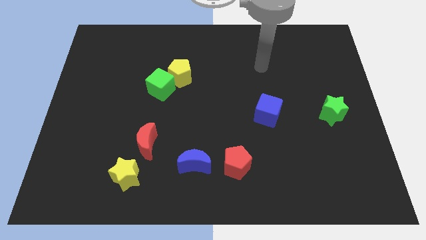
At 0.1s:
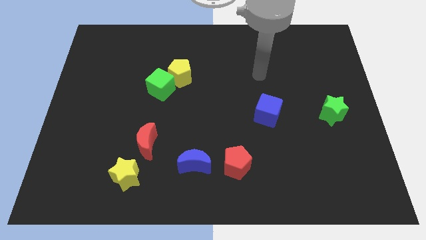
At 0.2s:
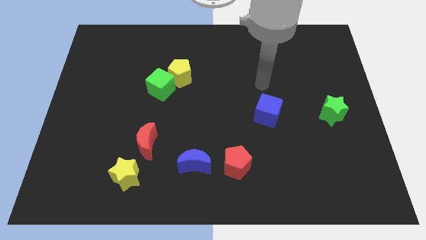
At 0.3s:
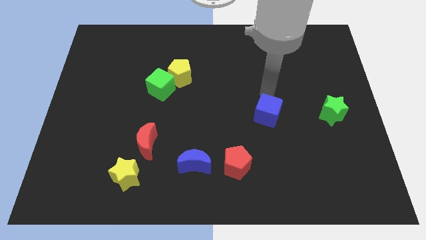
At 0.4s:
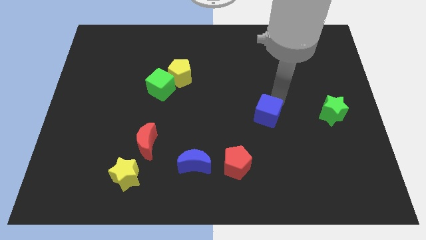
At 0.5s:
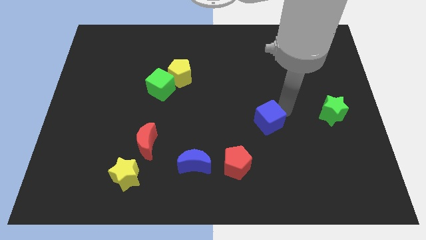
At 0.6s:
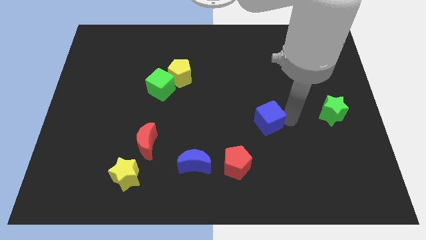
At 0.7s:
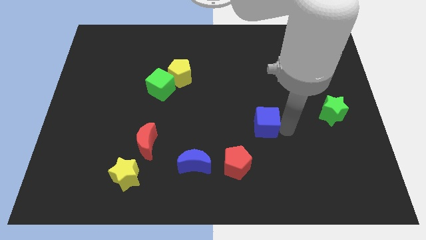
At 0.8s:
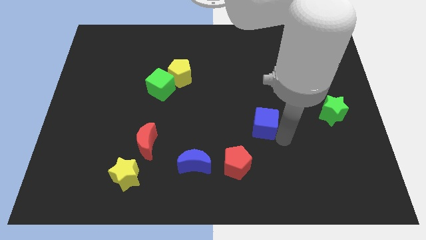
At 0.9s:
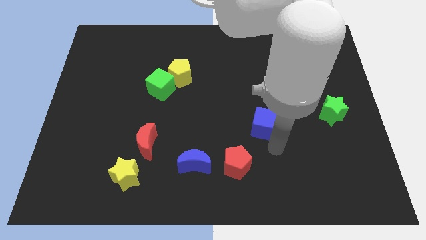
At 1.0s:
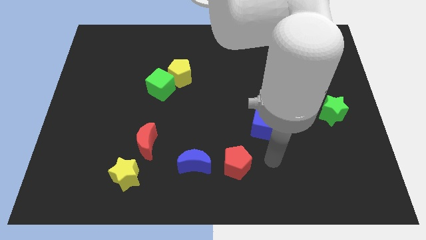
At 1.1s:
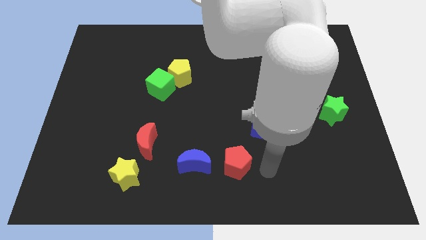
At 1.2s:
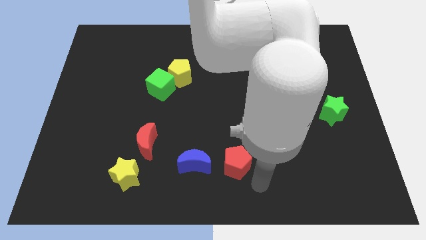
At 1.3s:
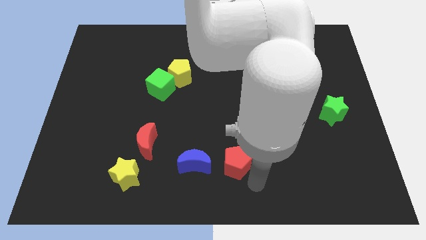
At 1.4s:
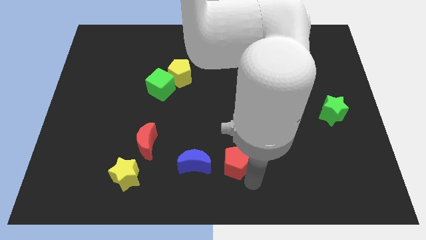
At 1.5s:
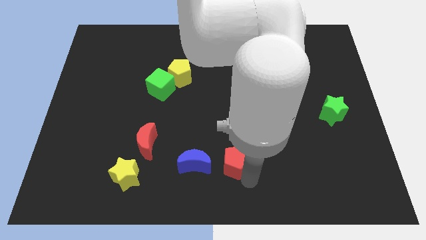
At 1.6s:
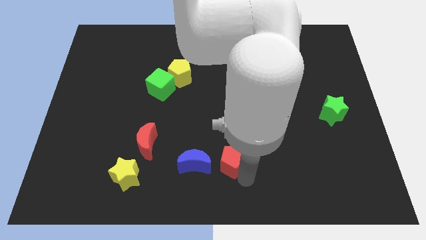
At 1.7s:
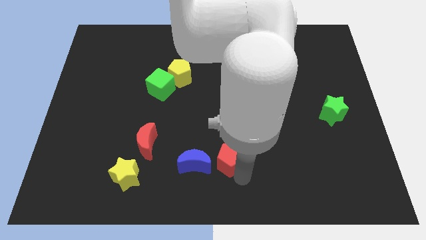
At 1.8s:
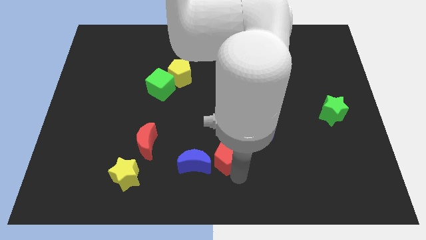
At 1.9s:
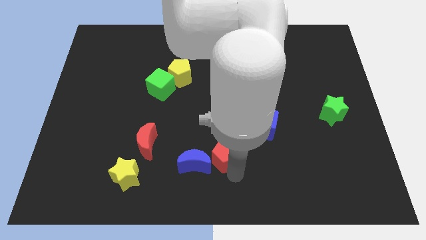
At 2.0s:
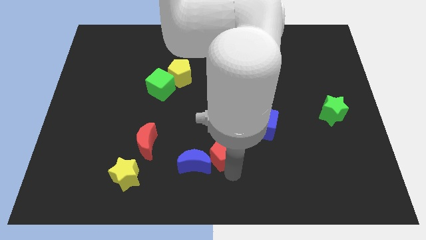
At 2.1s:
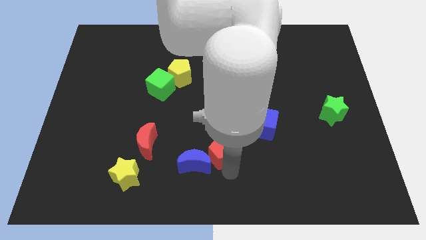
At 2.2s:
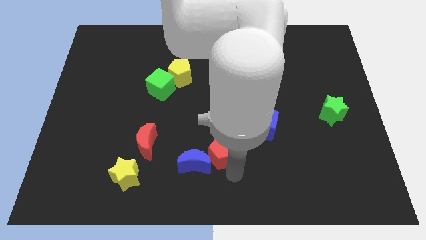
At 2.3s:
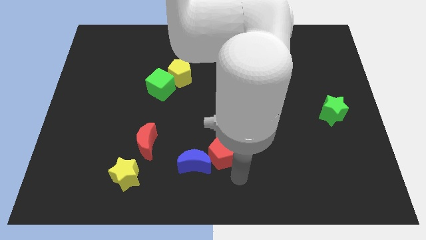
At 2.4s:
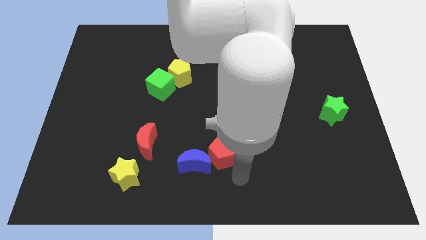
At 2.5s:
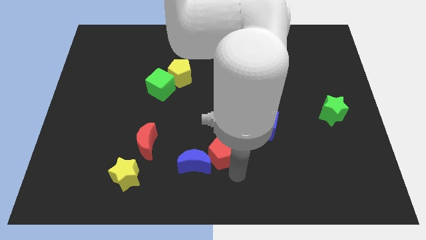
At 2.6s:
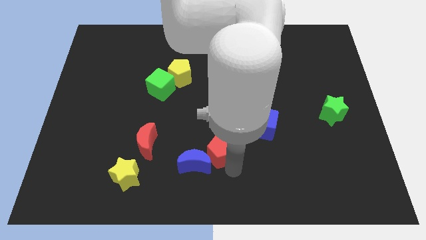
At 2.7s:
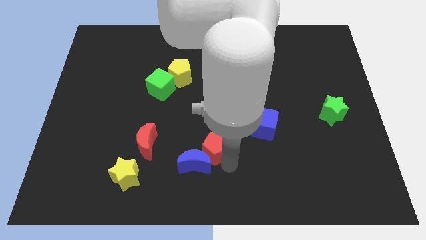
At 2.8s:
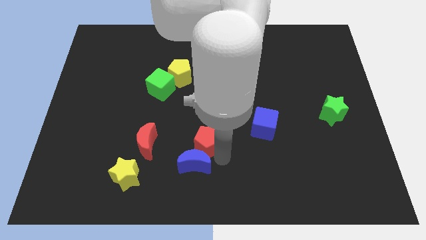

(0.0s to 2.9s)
slightly slide the red pentagon diagonally up and left

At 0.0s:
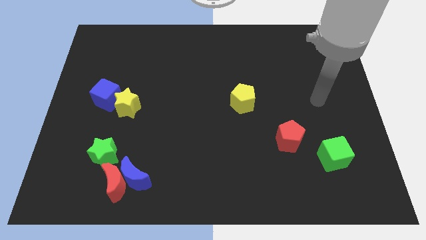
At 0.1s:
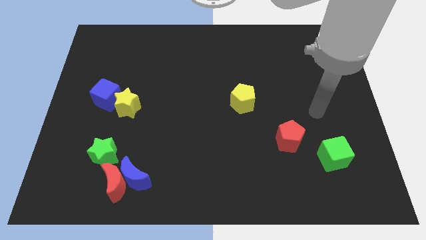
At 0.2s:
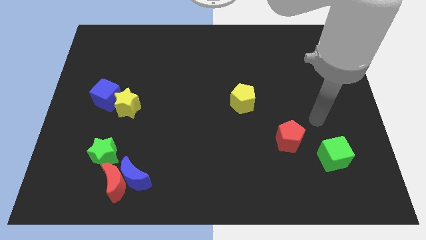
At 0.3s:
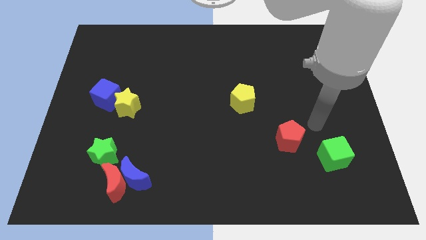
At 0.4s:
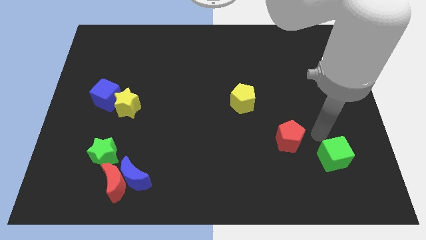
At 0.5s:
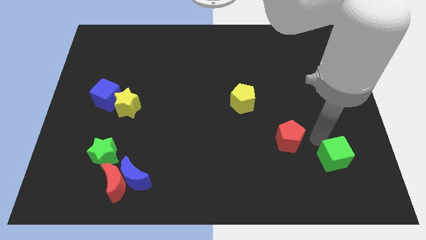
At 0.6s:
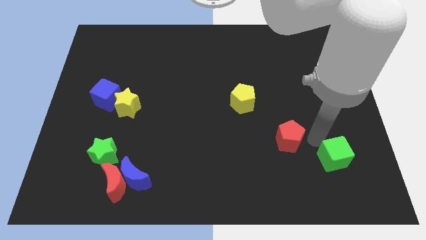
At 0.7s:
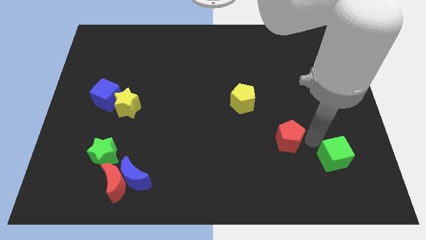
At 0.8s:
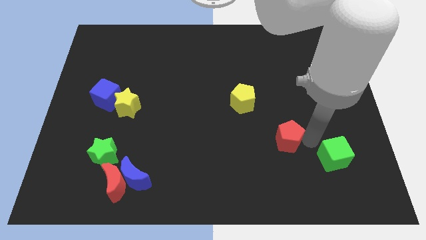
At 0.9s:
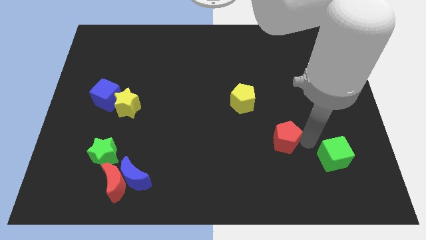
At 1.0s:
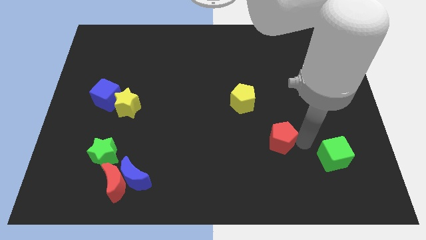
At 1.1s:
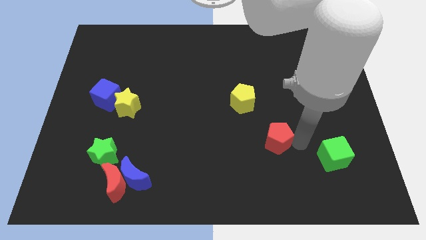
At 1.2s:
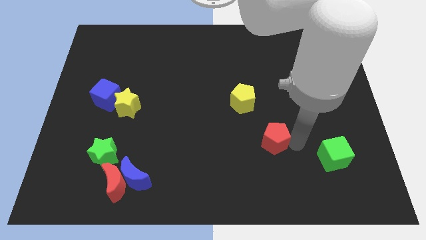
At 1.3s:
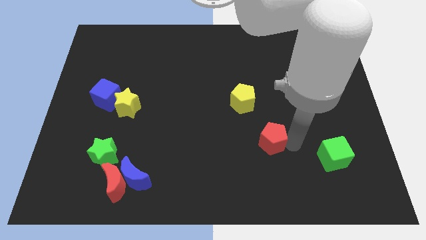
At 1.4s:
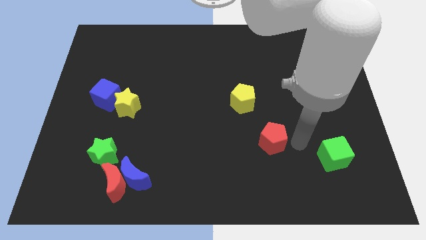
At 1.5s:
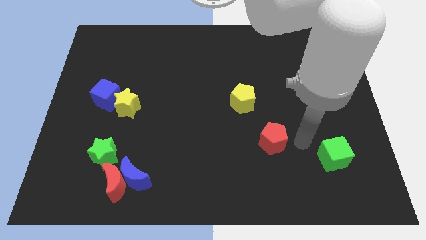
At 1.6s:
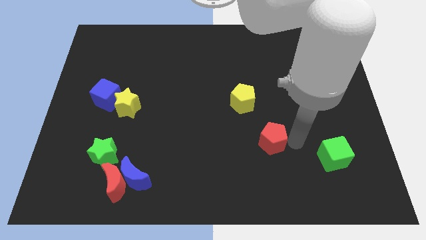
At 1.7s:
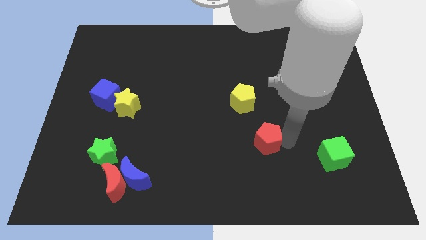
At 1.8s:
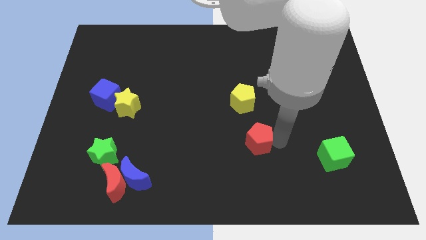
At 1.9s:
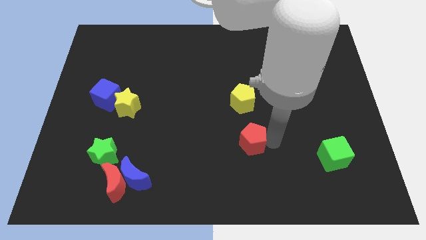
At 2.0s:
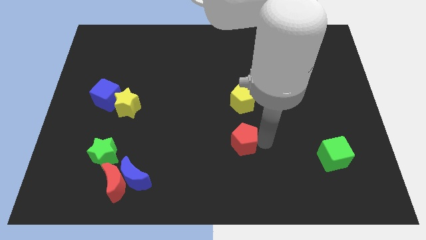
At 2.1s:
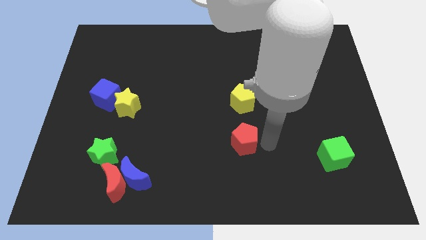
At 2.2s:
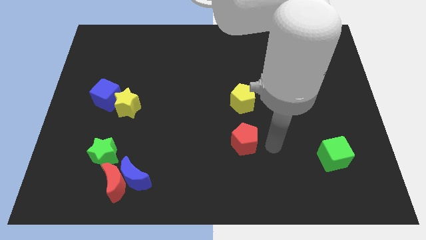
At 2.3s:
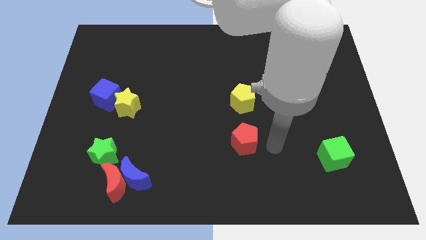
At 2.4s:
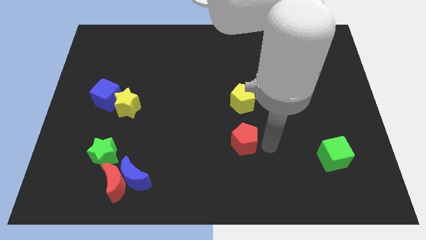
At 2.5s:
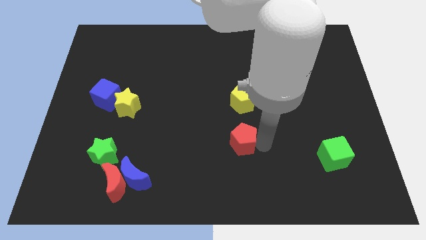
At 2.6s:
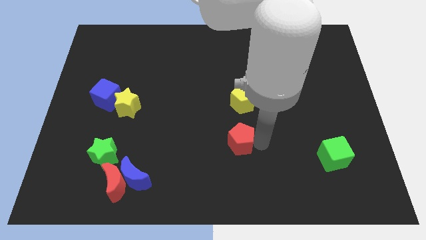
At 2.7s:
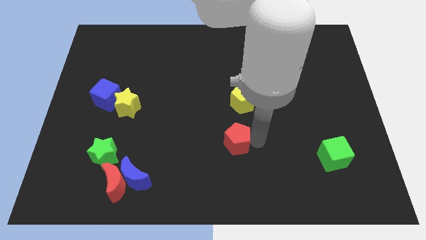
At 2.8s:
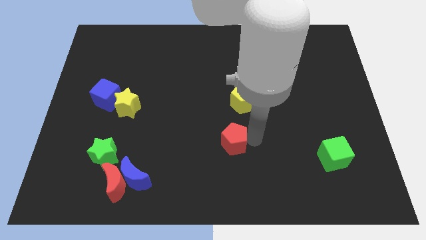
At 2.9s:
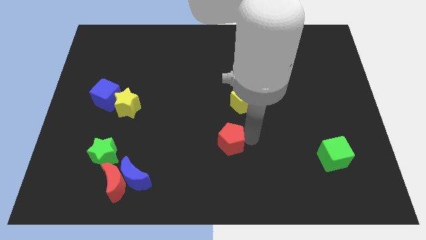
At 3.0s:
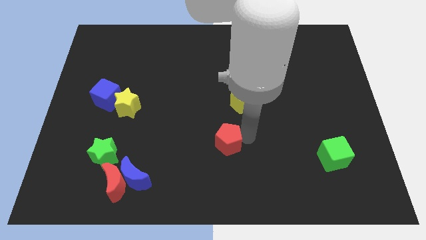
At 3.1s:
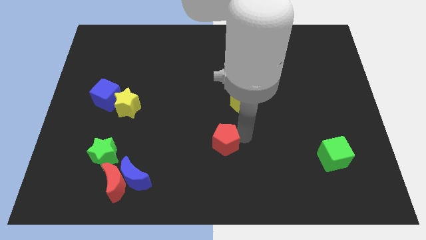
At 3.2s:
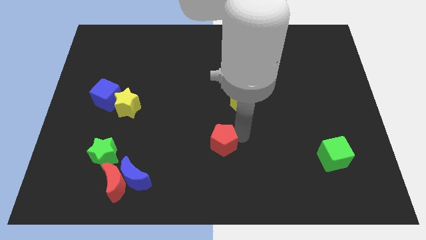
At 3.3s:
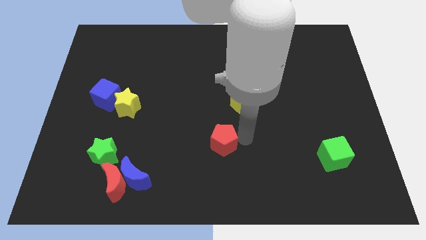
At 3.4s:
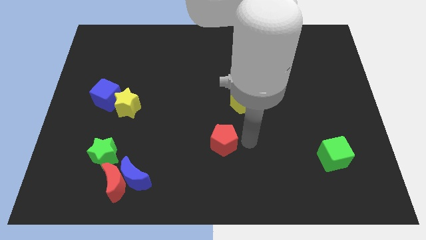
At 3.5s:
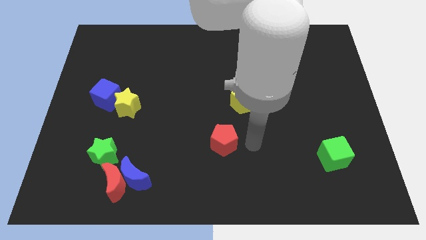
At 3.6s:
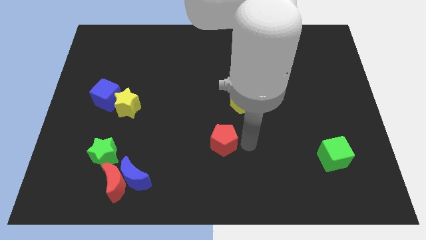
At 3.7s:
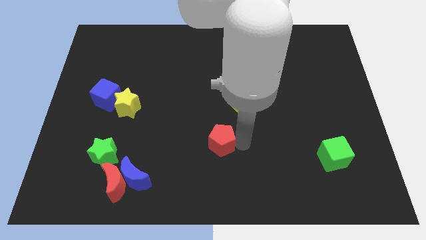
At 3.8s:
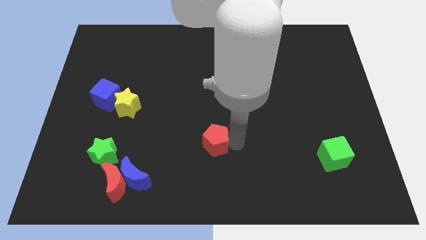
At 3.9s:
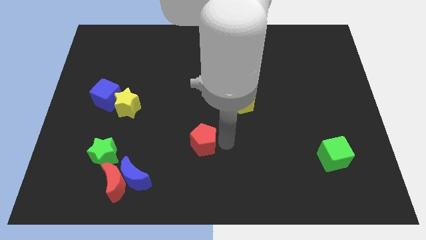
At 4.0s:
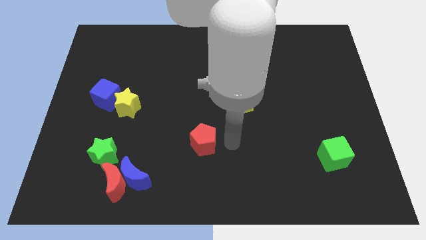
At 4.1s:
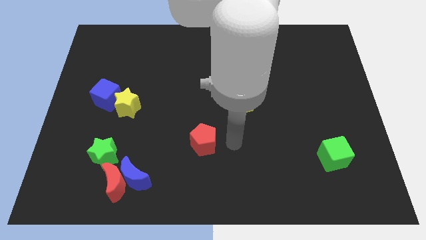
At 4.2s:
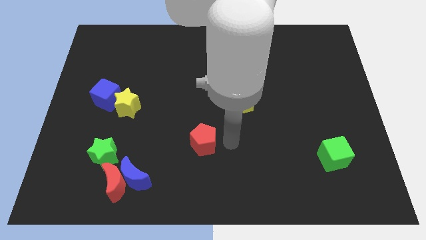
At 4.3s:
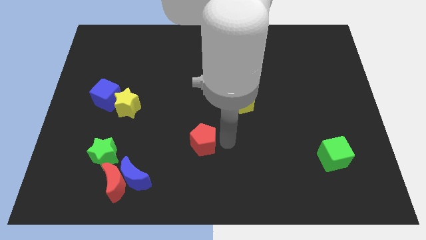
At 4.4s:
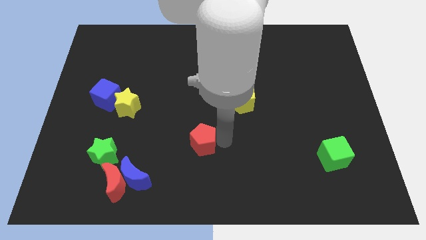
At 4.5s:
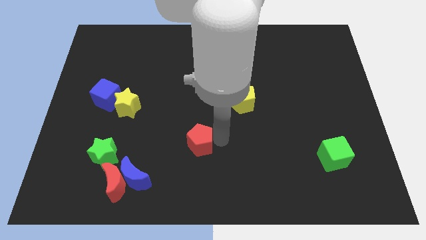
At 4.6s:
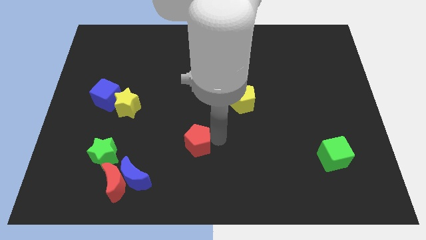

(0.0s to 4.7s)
push the red pentagon to the left

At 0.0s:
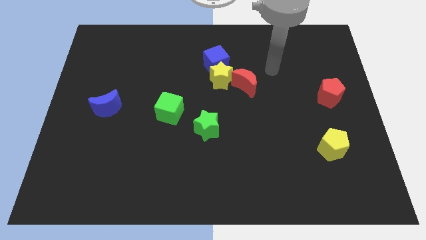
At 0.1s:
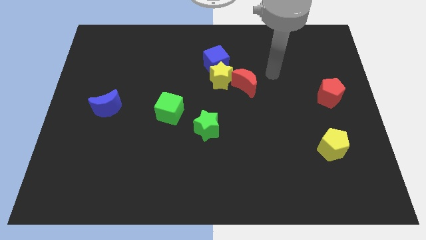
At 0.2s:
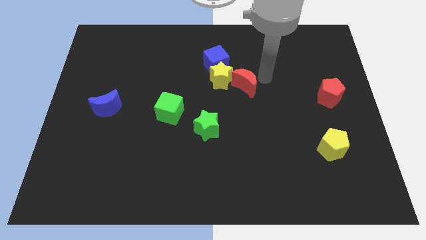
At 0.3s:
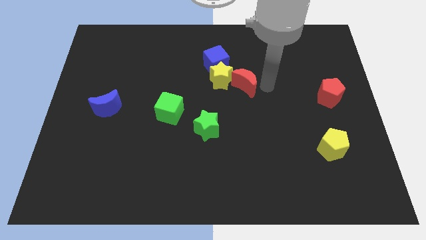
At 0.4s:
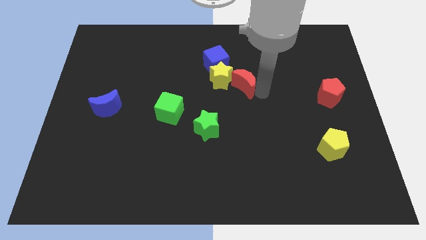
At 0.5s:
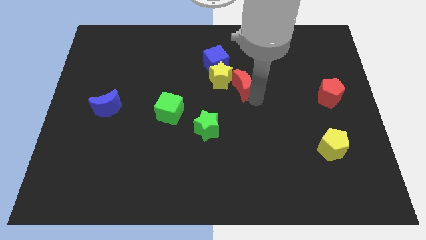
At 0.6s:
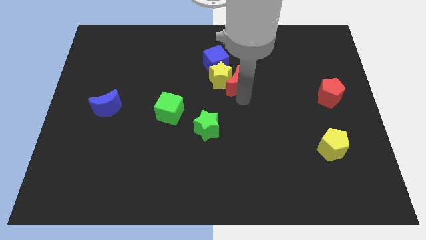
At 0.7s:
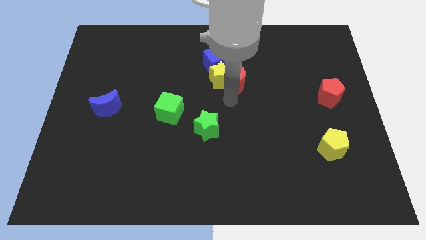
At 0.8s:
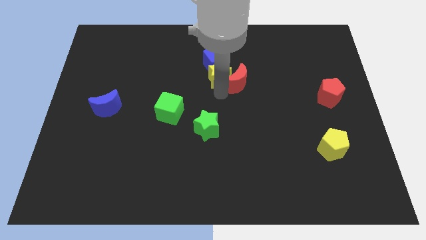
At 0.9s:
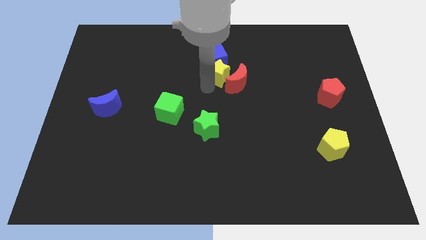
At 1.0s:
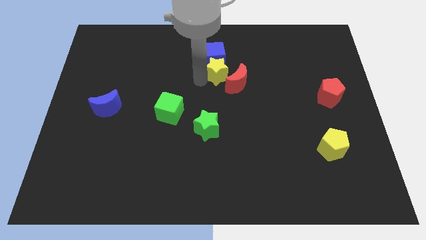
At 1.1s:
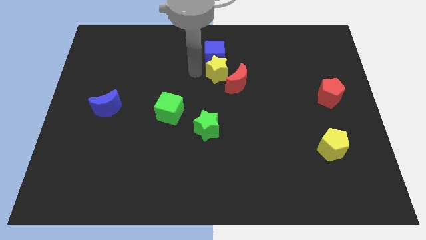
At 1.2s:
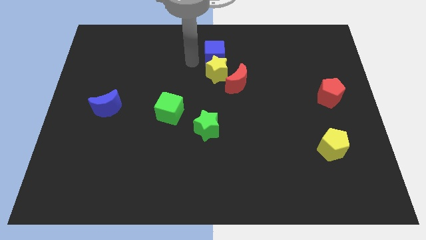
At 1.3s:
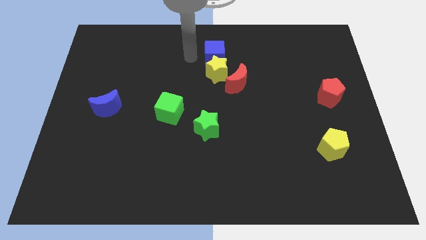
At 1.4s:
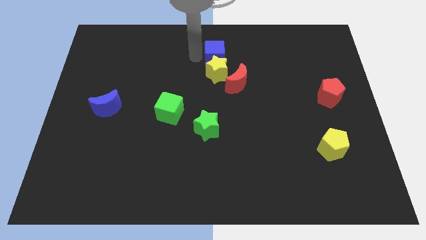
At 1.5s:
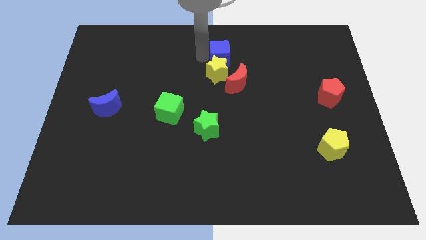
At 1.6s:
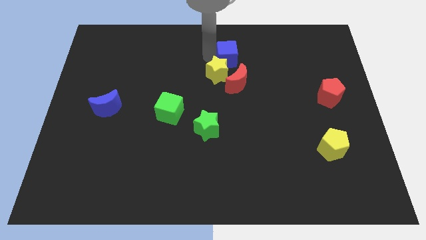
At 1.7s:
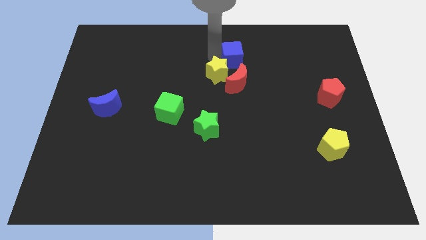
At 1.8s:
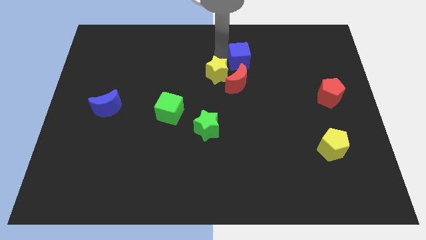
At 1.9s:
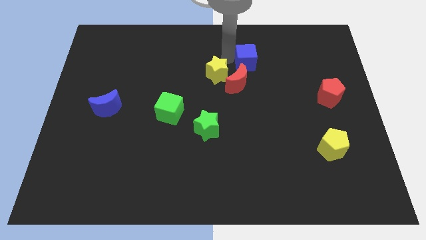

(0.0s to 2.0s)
slide the blue cube to the right a little bit
